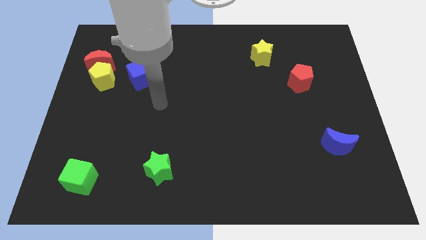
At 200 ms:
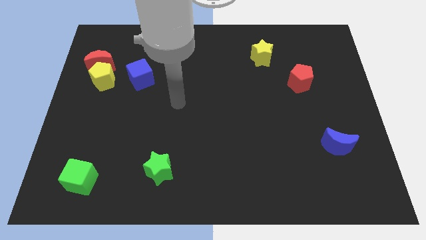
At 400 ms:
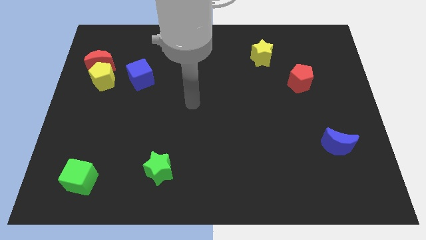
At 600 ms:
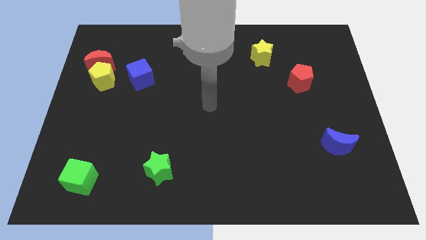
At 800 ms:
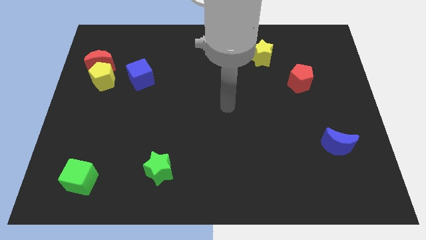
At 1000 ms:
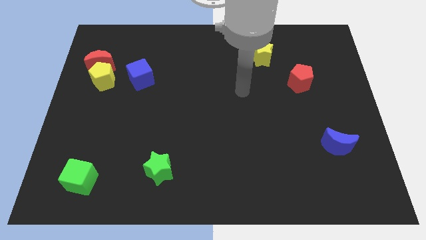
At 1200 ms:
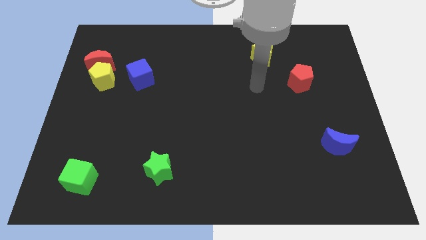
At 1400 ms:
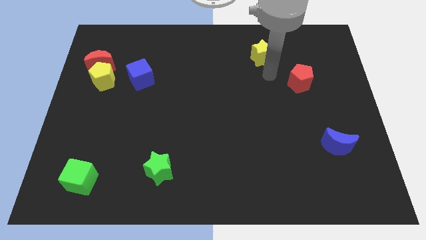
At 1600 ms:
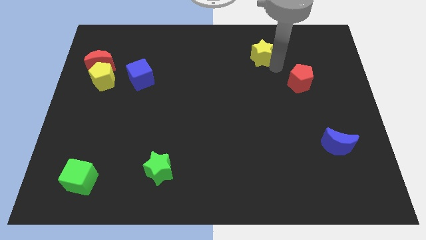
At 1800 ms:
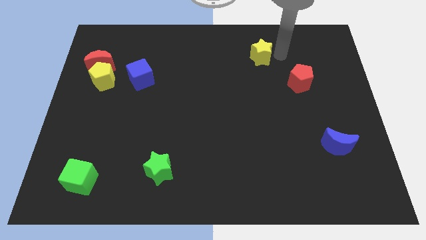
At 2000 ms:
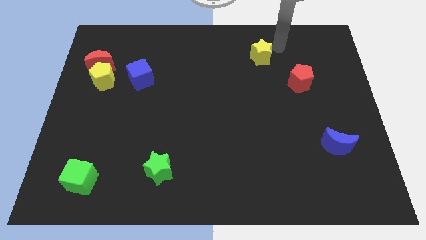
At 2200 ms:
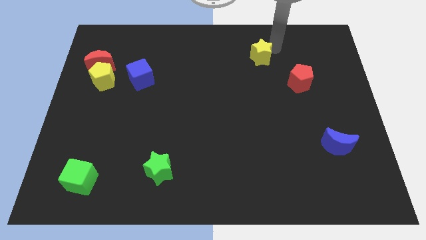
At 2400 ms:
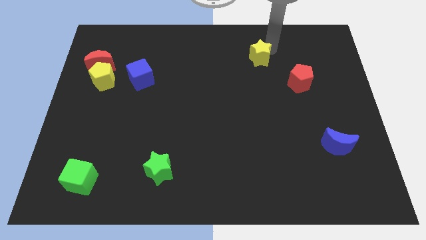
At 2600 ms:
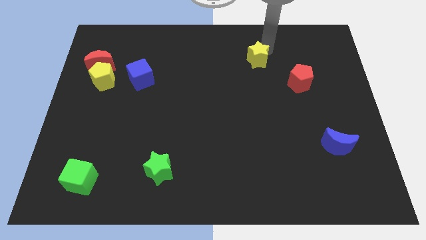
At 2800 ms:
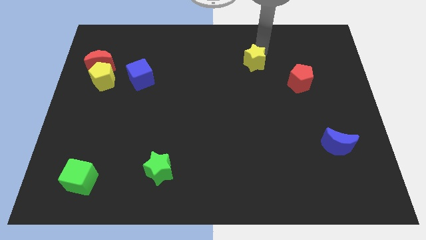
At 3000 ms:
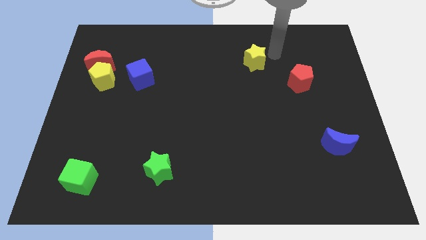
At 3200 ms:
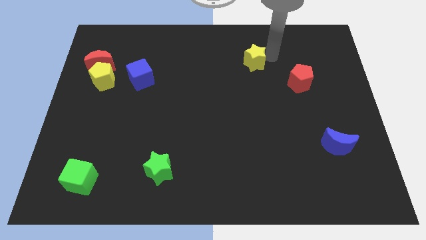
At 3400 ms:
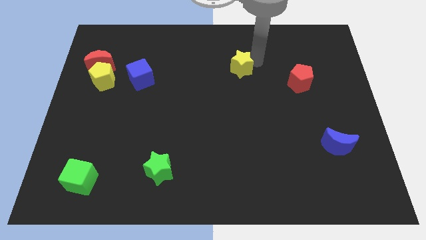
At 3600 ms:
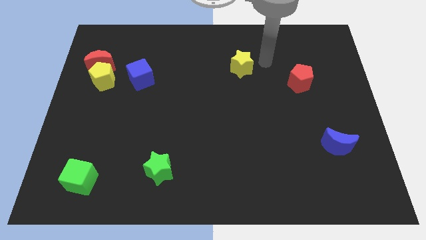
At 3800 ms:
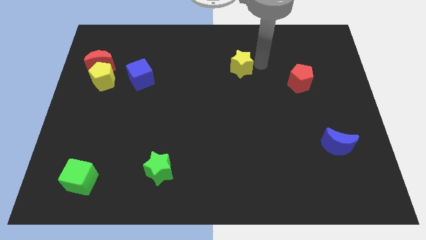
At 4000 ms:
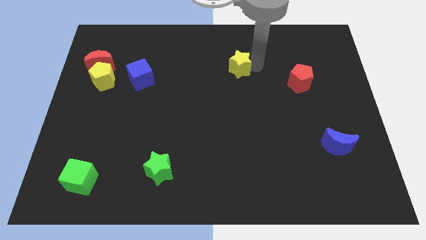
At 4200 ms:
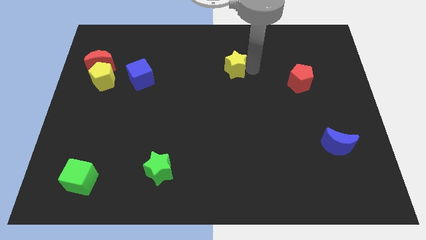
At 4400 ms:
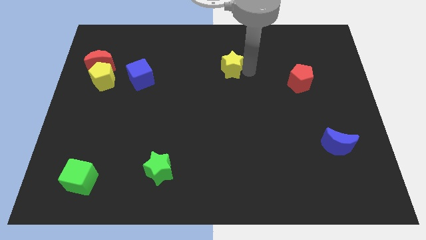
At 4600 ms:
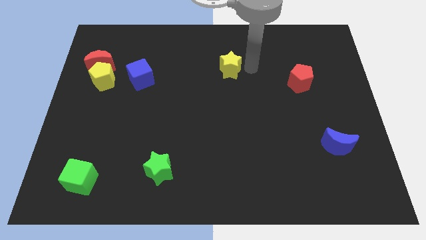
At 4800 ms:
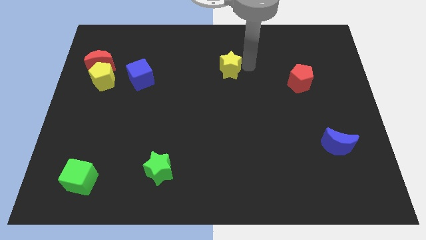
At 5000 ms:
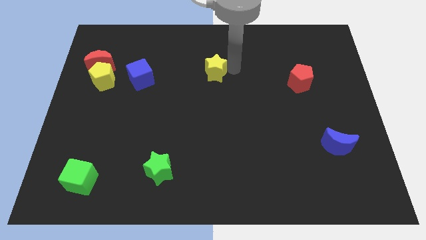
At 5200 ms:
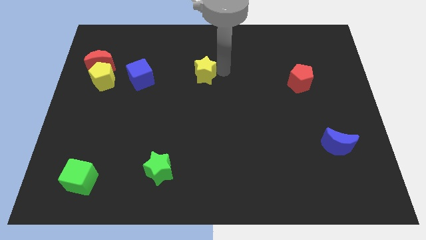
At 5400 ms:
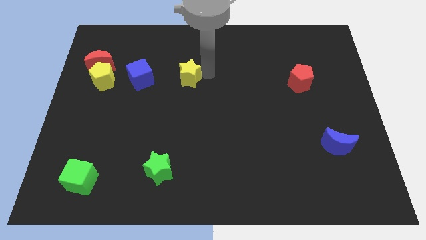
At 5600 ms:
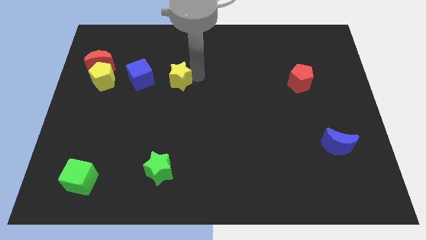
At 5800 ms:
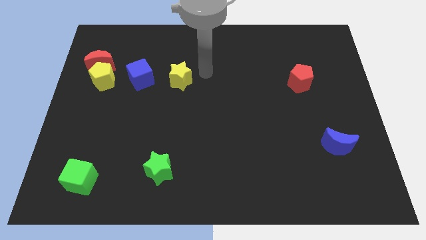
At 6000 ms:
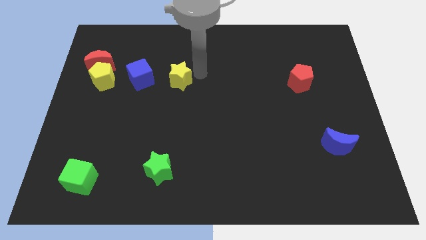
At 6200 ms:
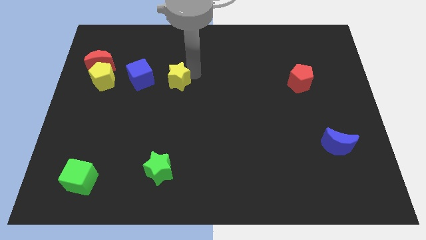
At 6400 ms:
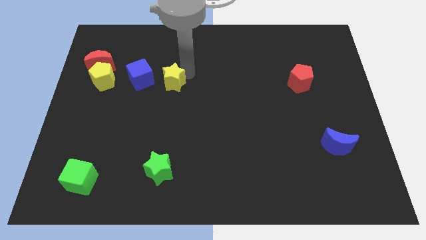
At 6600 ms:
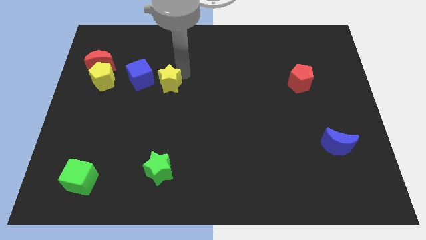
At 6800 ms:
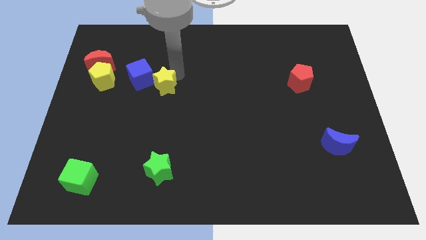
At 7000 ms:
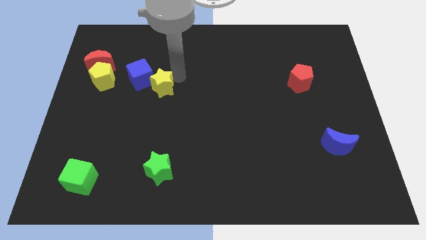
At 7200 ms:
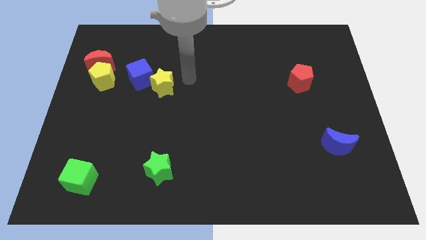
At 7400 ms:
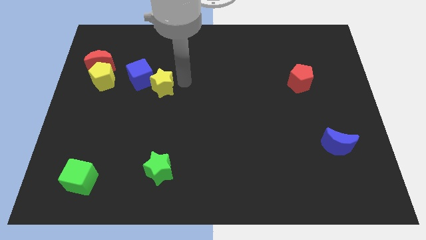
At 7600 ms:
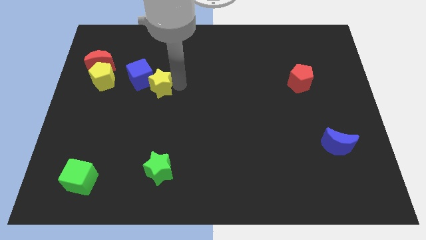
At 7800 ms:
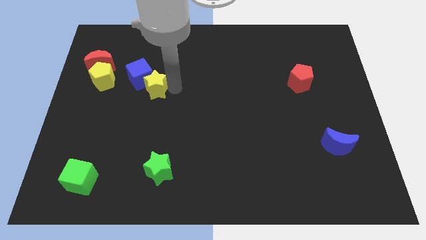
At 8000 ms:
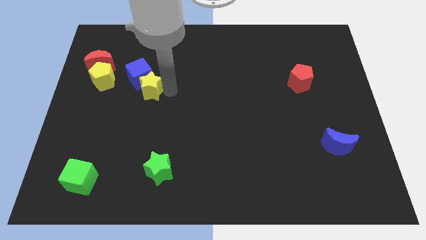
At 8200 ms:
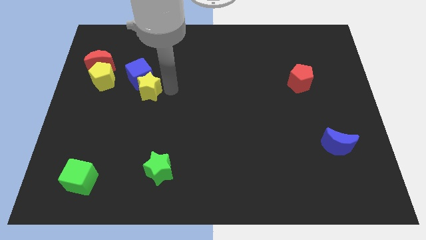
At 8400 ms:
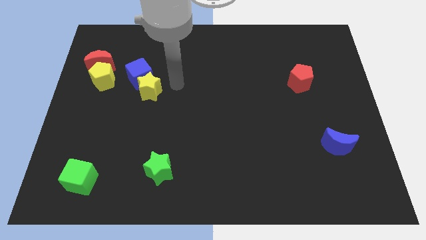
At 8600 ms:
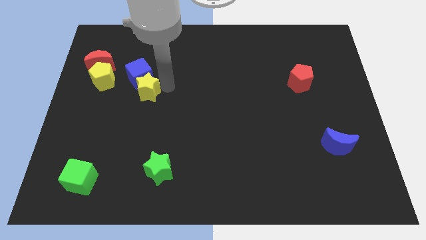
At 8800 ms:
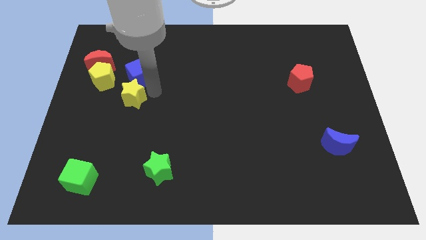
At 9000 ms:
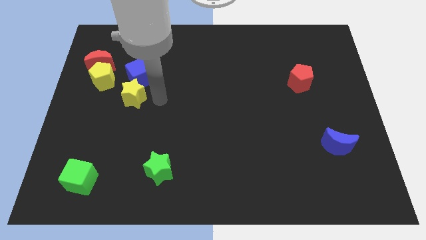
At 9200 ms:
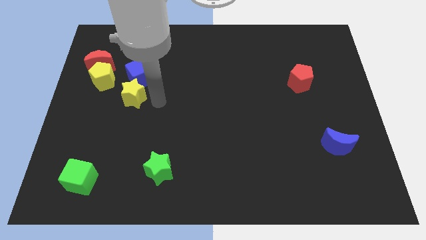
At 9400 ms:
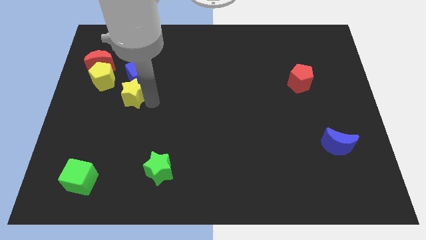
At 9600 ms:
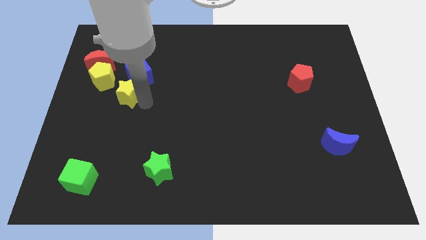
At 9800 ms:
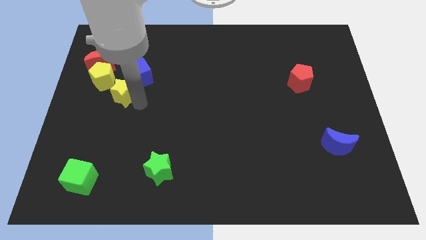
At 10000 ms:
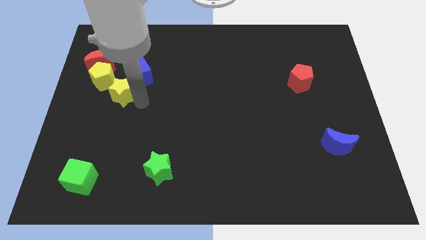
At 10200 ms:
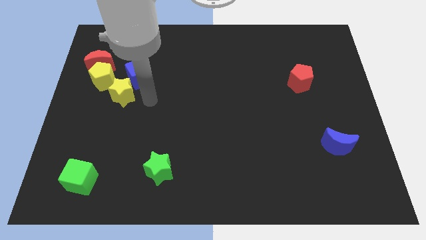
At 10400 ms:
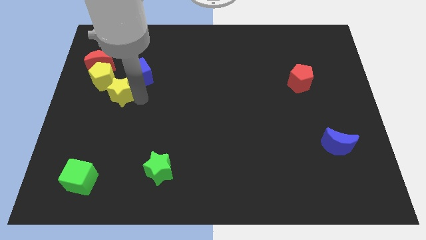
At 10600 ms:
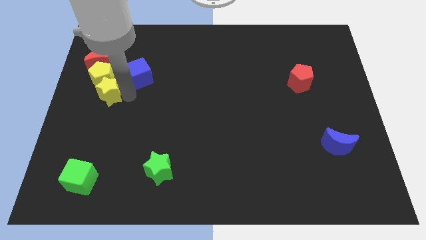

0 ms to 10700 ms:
put the yellow star to the bottom side of the red moon
